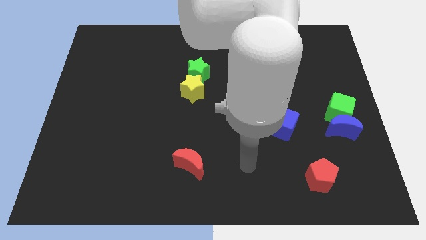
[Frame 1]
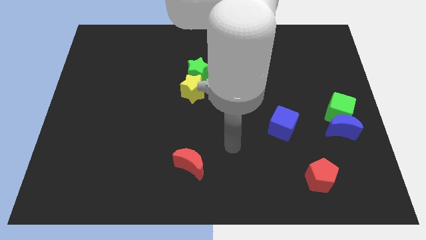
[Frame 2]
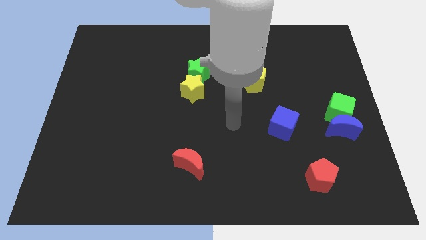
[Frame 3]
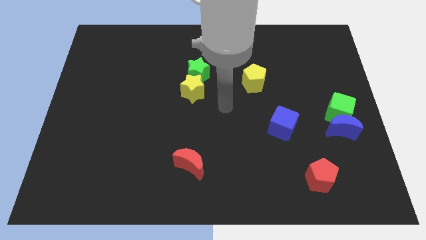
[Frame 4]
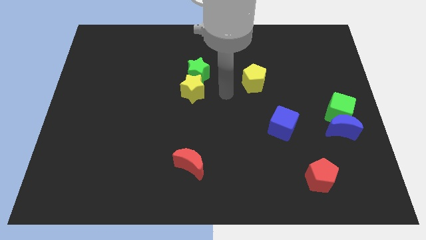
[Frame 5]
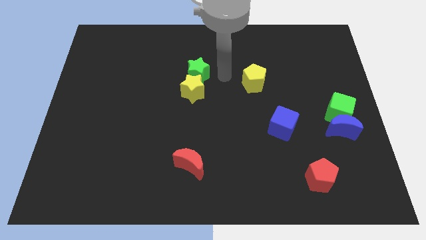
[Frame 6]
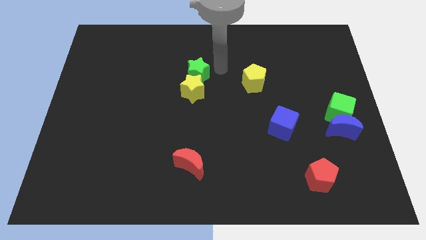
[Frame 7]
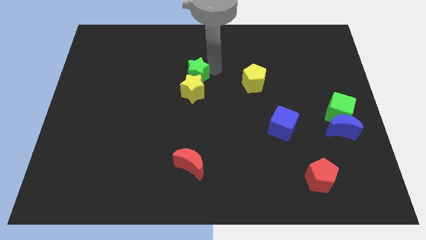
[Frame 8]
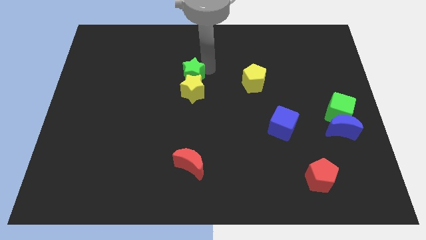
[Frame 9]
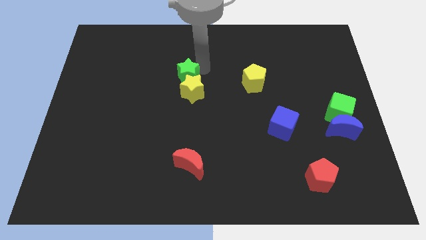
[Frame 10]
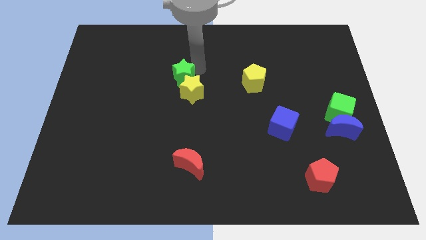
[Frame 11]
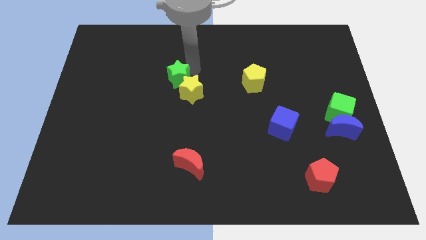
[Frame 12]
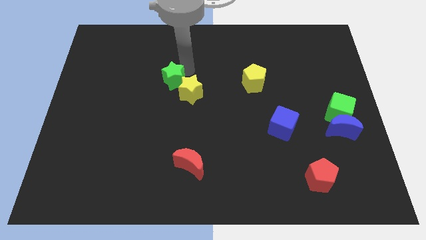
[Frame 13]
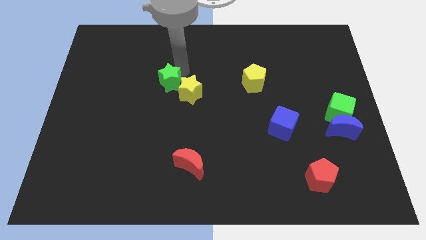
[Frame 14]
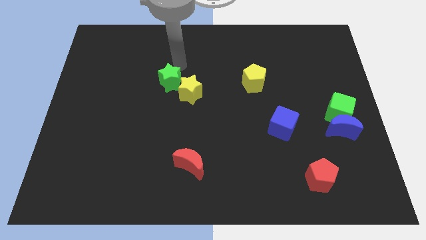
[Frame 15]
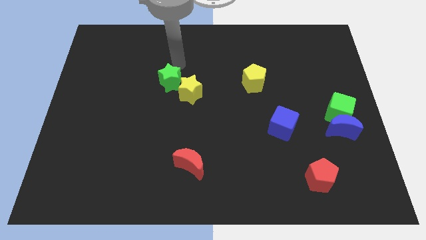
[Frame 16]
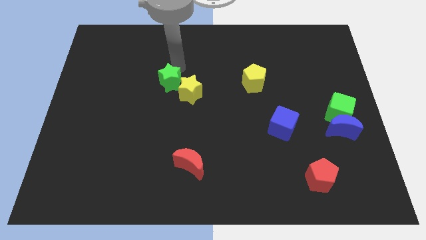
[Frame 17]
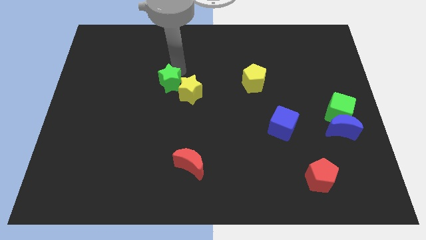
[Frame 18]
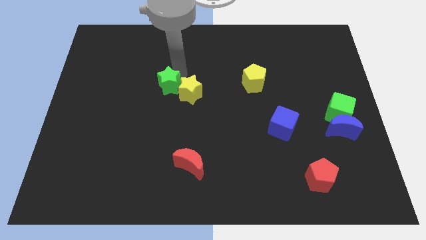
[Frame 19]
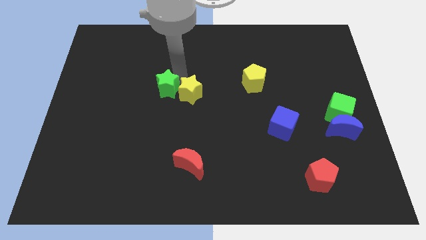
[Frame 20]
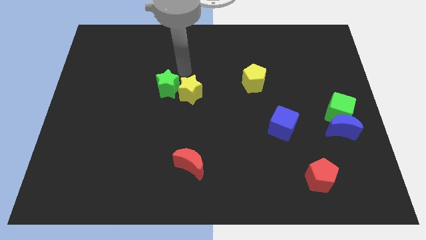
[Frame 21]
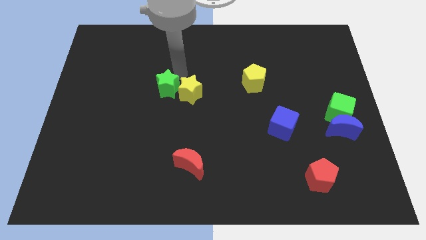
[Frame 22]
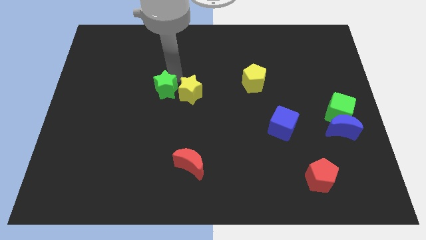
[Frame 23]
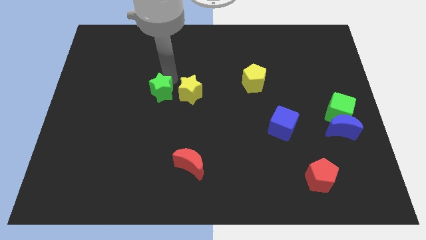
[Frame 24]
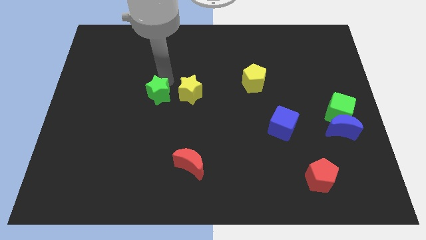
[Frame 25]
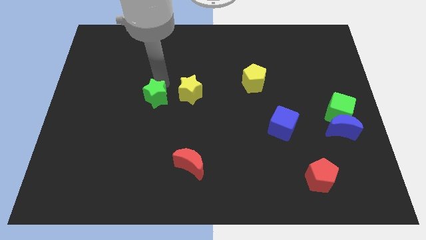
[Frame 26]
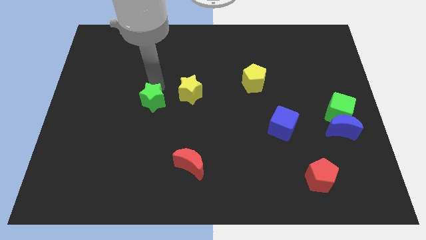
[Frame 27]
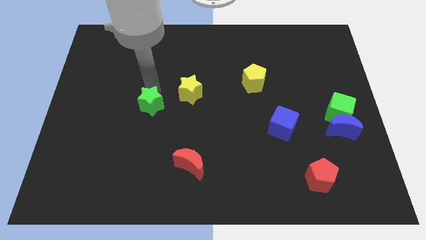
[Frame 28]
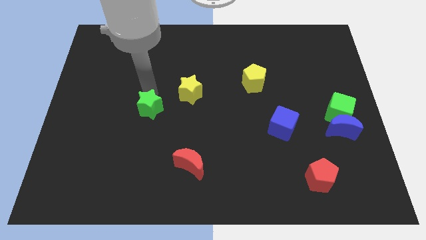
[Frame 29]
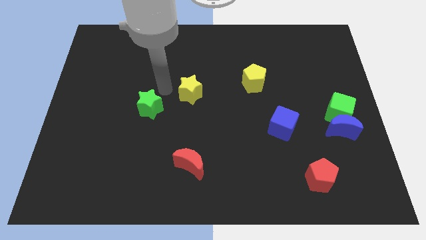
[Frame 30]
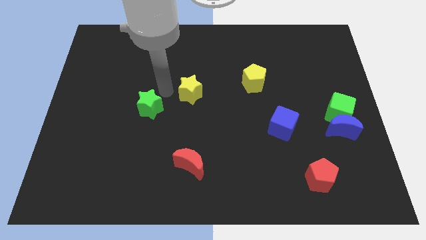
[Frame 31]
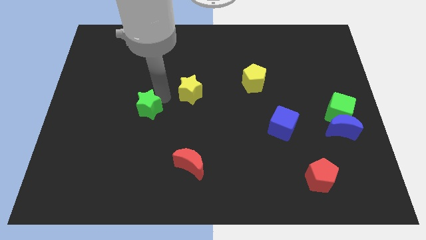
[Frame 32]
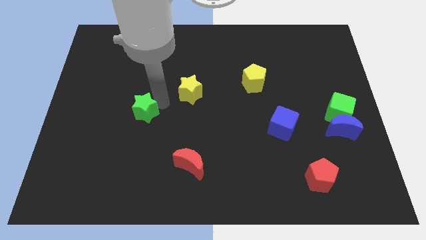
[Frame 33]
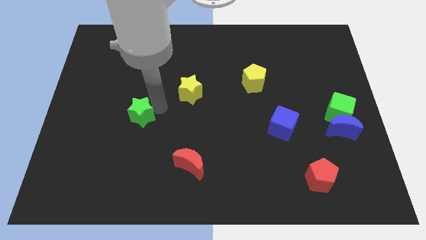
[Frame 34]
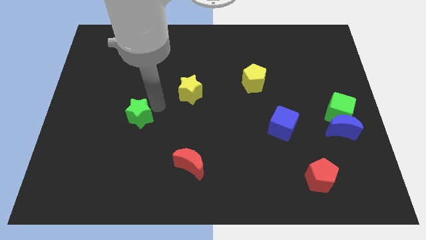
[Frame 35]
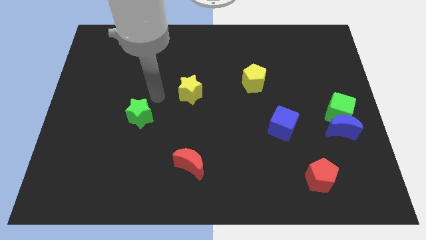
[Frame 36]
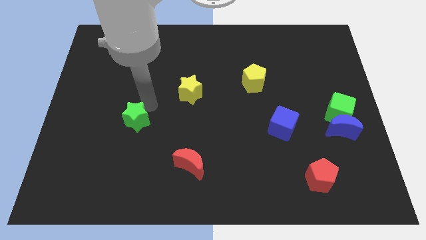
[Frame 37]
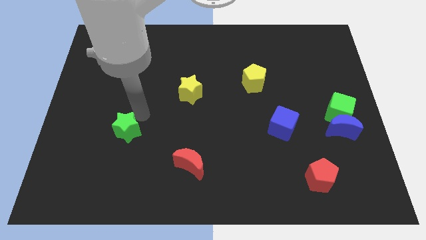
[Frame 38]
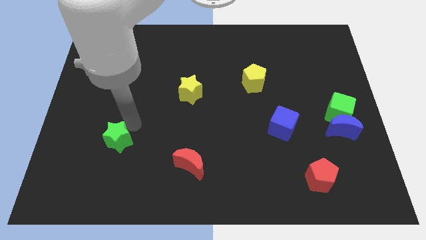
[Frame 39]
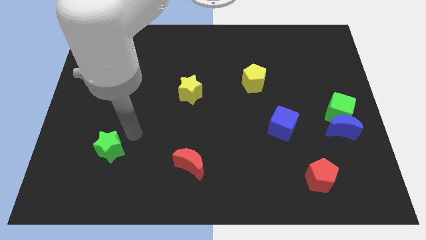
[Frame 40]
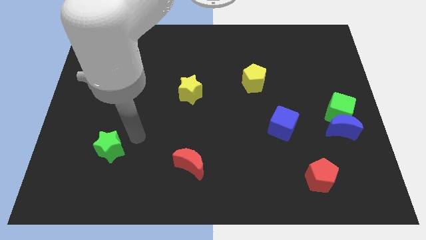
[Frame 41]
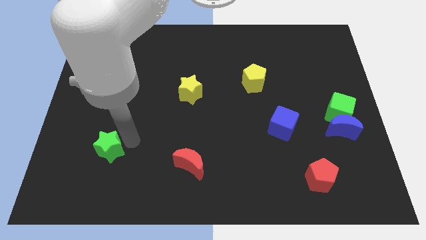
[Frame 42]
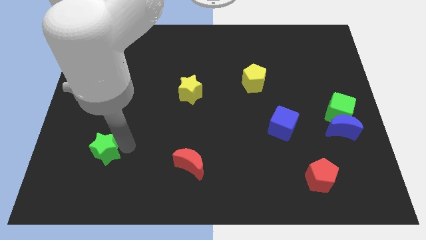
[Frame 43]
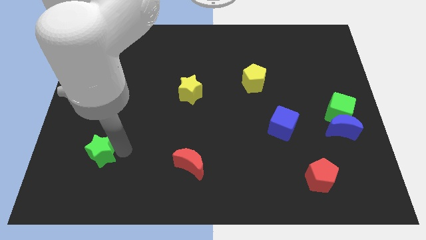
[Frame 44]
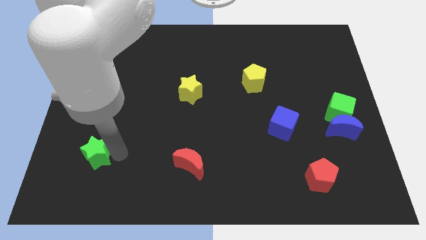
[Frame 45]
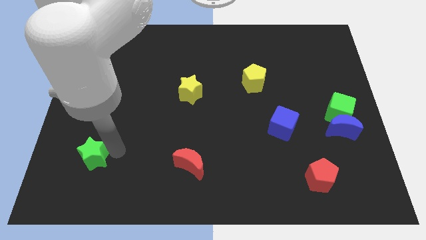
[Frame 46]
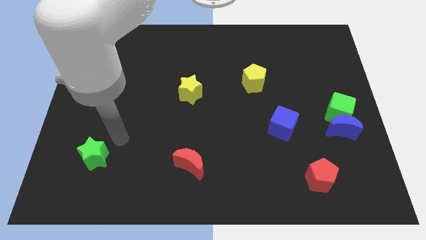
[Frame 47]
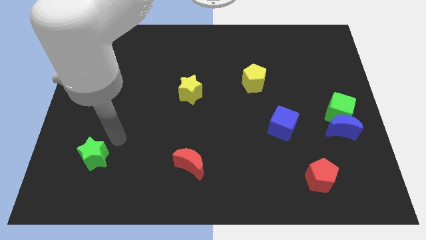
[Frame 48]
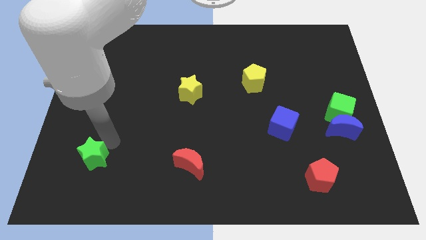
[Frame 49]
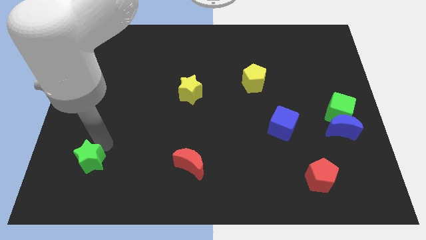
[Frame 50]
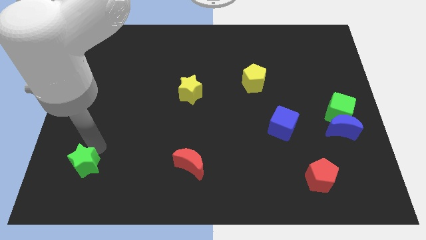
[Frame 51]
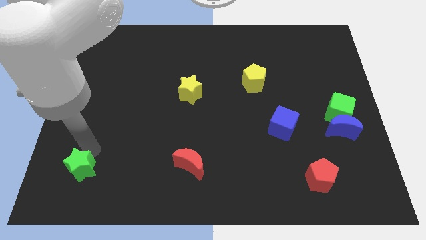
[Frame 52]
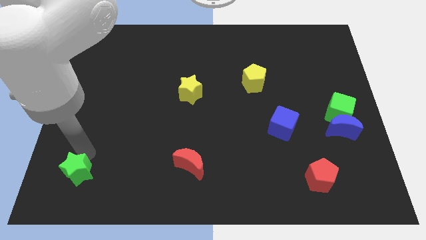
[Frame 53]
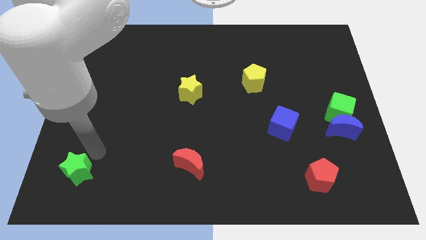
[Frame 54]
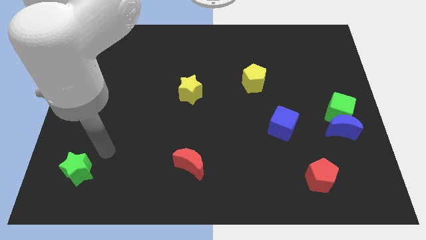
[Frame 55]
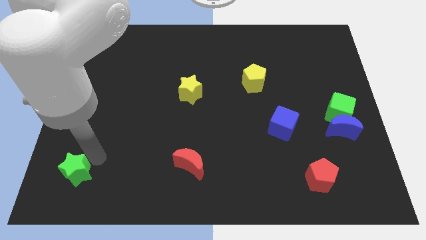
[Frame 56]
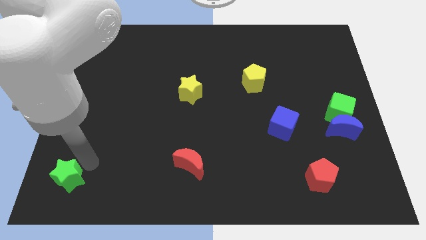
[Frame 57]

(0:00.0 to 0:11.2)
push the green star to the lower left corner

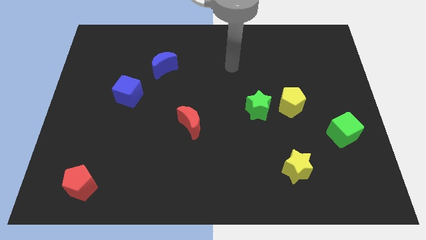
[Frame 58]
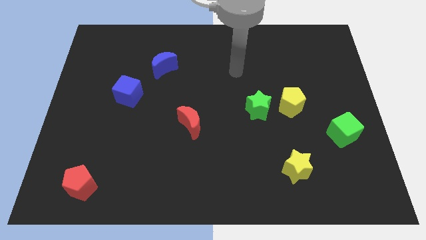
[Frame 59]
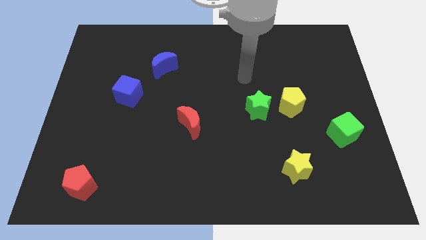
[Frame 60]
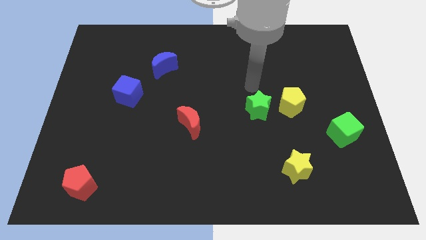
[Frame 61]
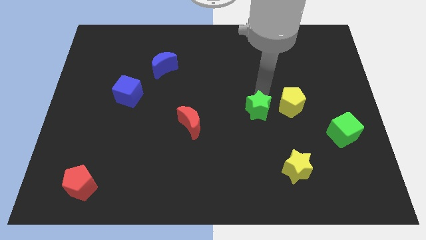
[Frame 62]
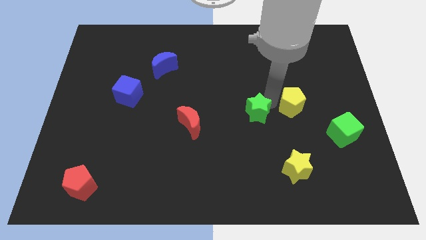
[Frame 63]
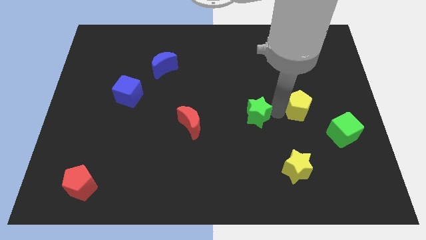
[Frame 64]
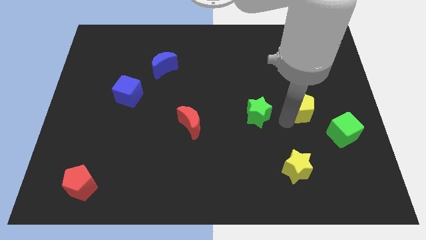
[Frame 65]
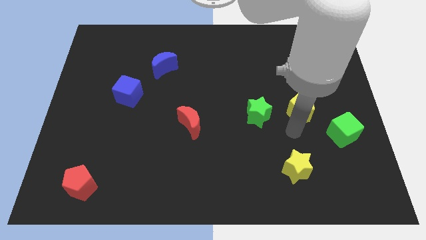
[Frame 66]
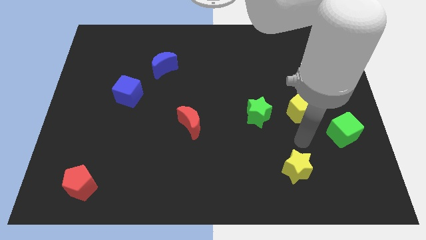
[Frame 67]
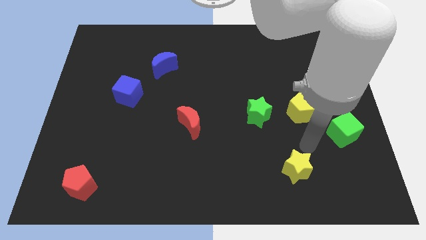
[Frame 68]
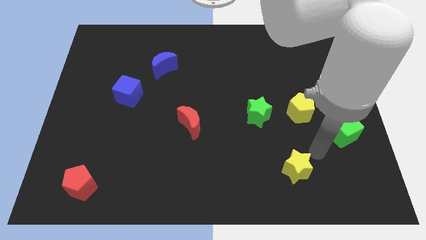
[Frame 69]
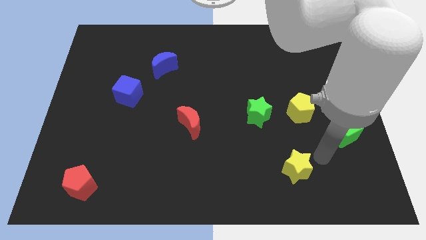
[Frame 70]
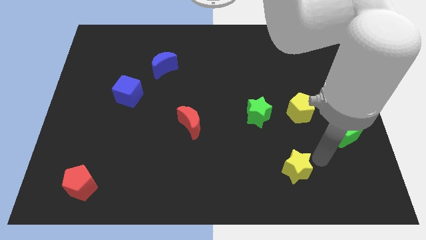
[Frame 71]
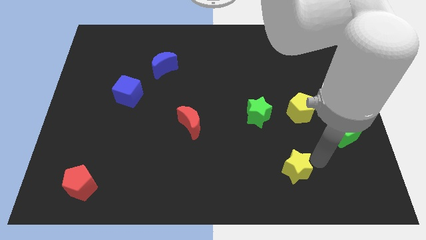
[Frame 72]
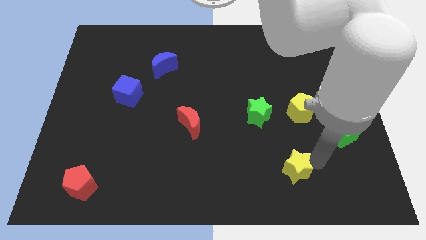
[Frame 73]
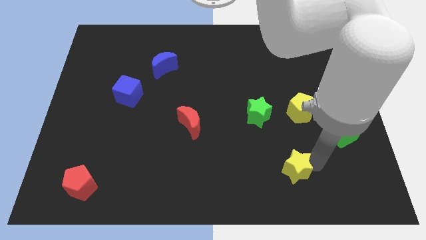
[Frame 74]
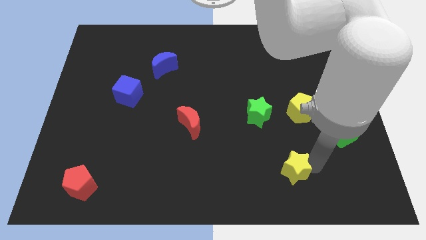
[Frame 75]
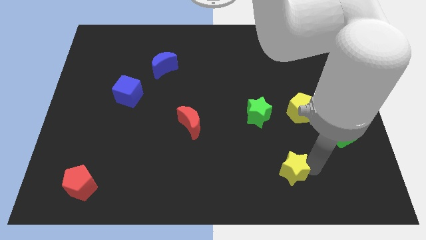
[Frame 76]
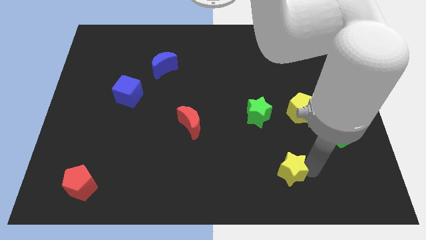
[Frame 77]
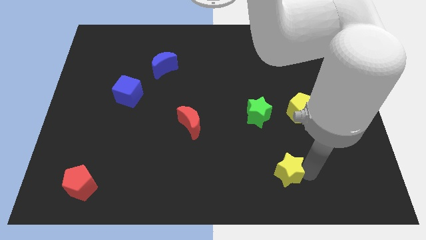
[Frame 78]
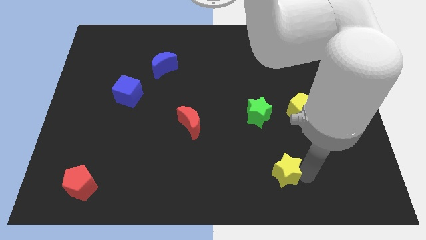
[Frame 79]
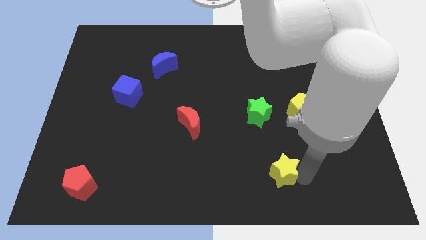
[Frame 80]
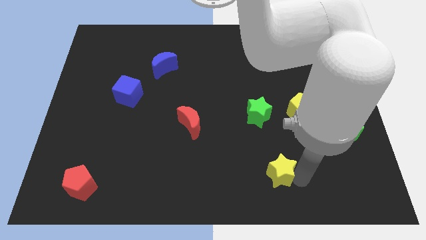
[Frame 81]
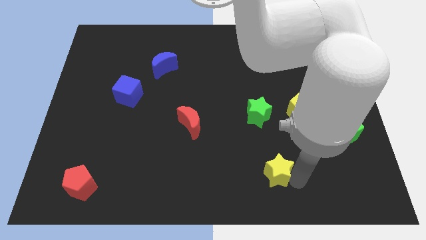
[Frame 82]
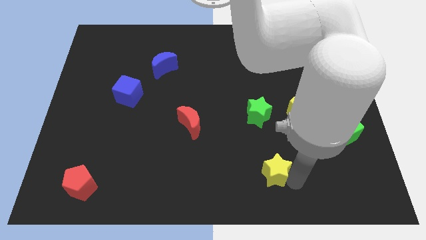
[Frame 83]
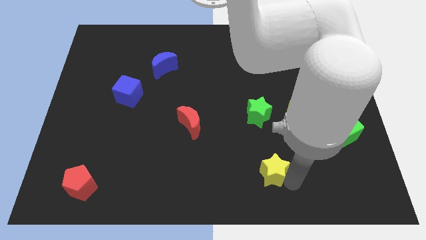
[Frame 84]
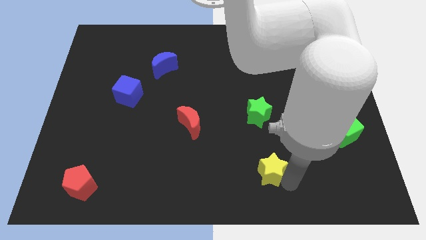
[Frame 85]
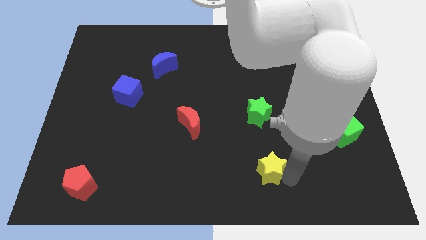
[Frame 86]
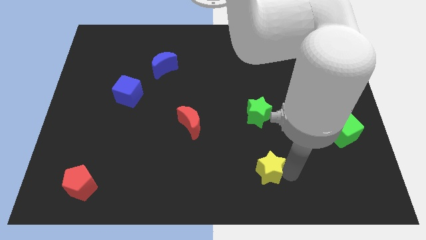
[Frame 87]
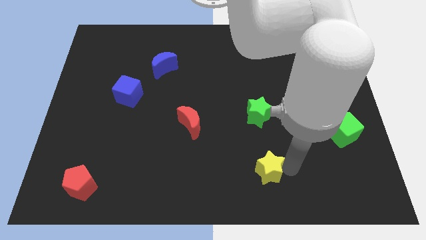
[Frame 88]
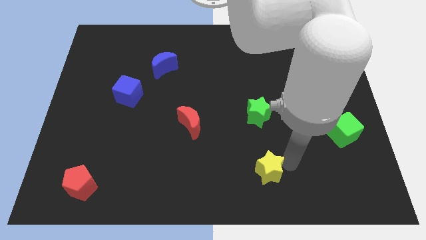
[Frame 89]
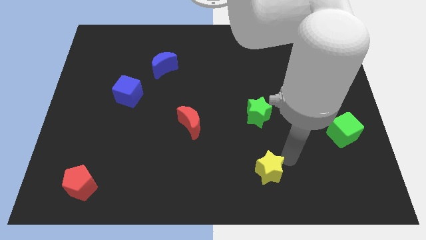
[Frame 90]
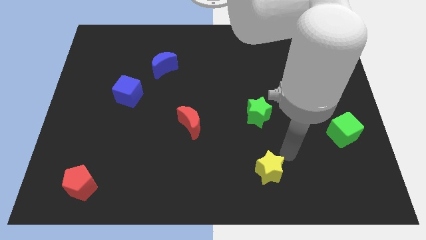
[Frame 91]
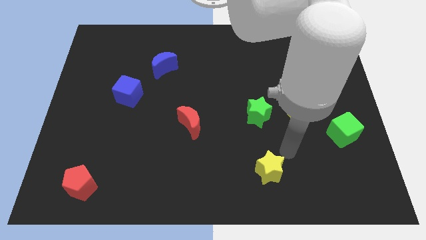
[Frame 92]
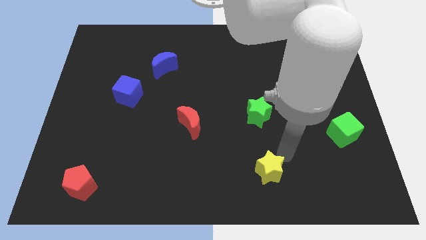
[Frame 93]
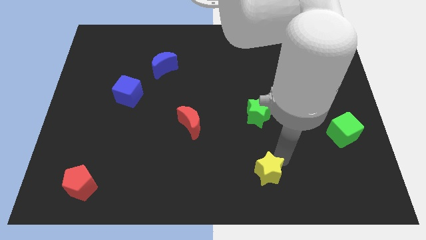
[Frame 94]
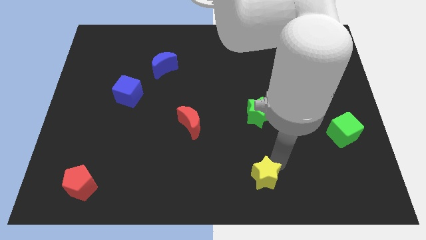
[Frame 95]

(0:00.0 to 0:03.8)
push the yellow star to the bottom side
